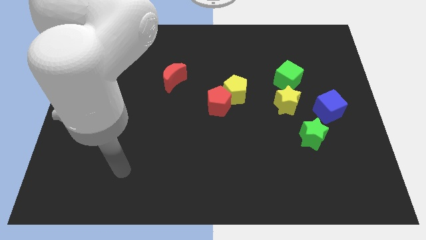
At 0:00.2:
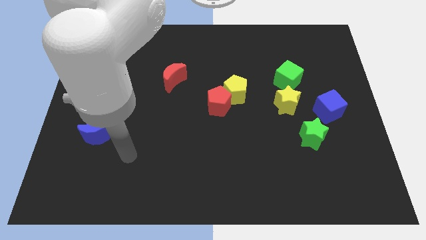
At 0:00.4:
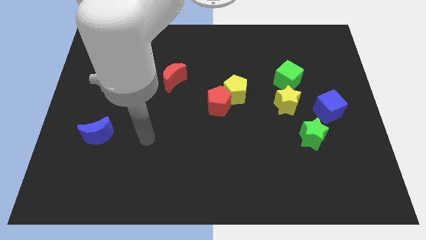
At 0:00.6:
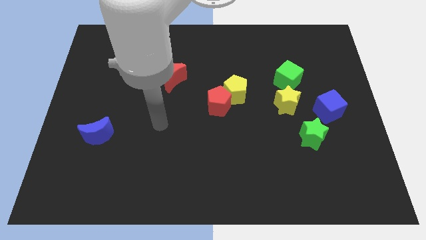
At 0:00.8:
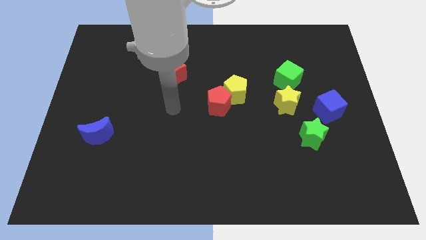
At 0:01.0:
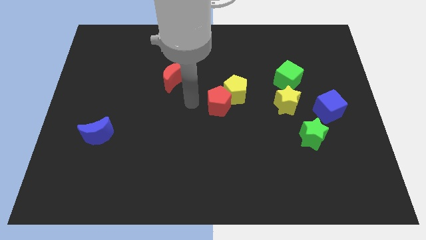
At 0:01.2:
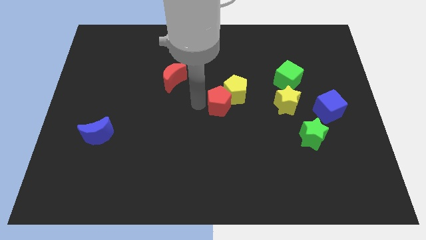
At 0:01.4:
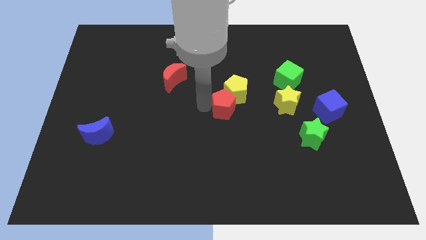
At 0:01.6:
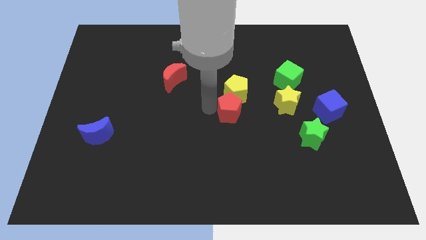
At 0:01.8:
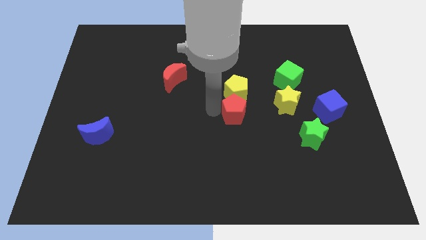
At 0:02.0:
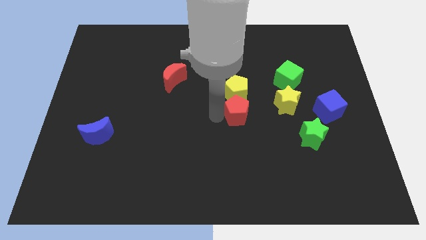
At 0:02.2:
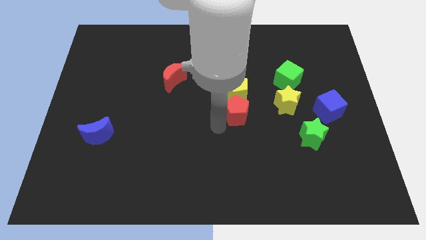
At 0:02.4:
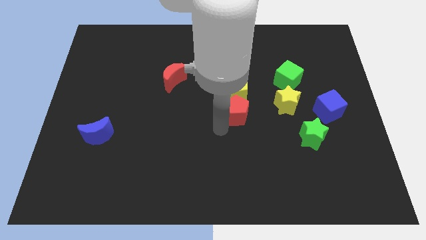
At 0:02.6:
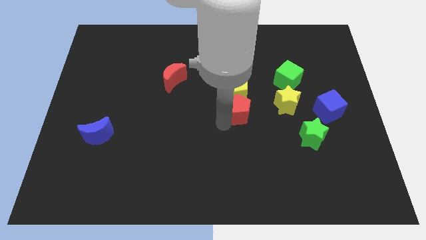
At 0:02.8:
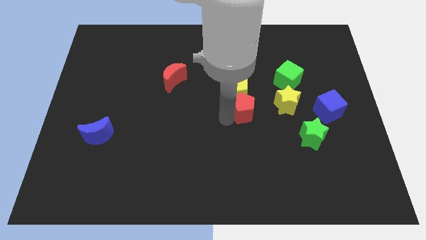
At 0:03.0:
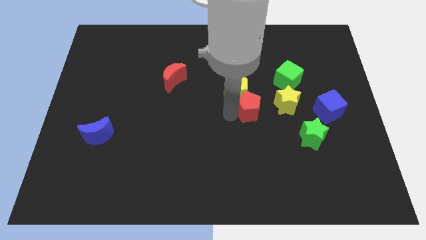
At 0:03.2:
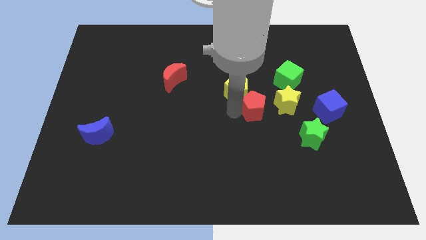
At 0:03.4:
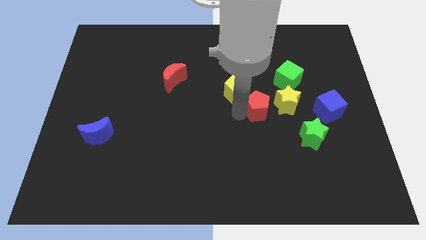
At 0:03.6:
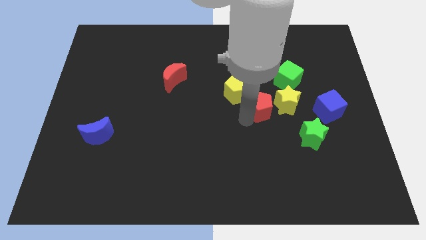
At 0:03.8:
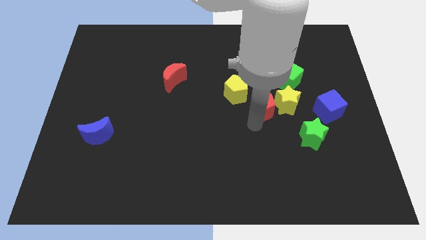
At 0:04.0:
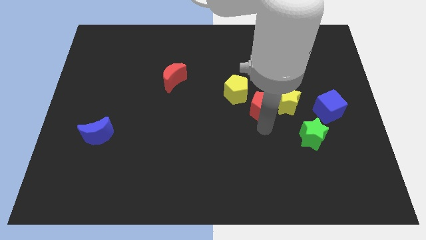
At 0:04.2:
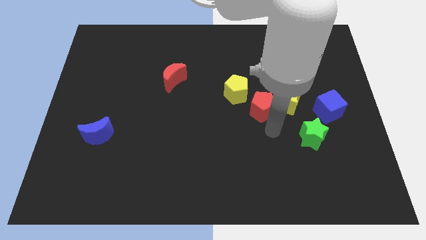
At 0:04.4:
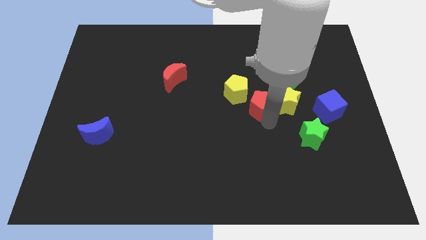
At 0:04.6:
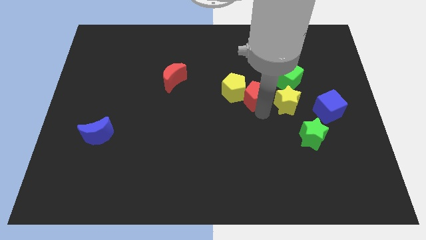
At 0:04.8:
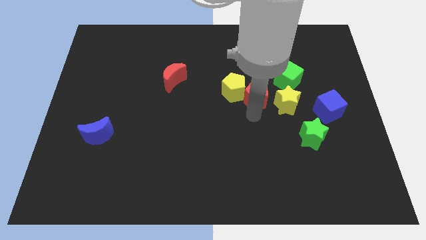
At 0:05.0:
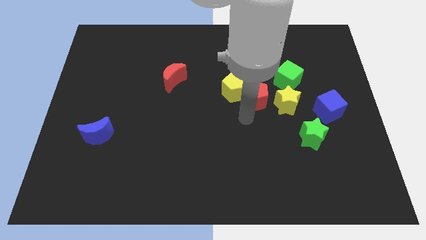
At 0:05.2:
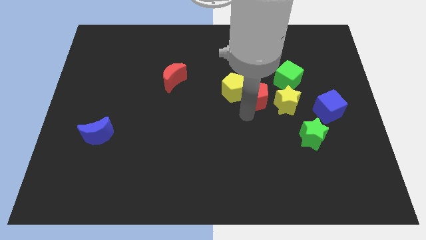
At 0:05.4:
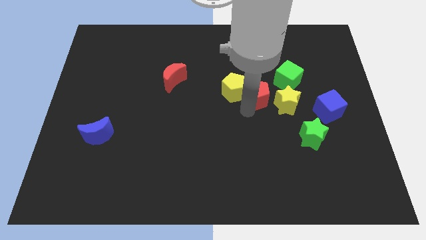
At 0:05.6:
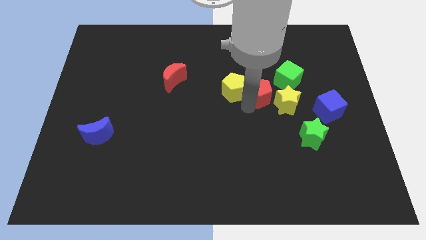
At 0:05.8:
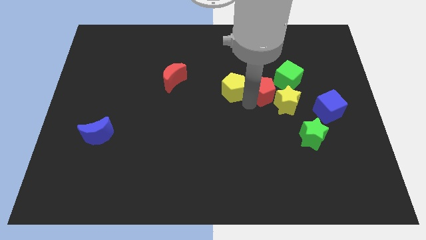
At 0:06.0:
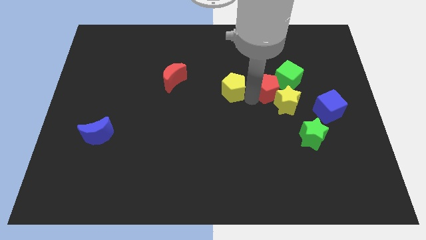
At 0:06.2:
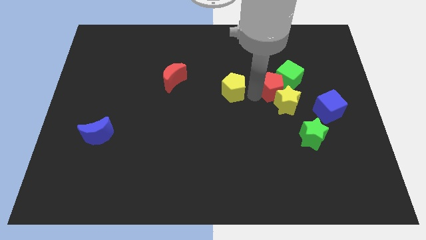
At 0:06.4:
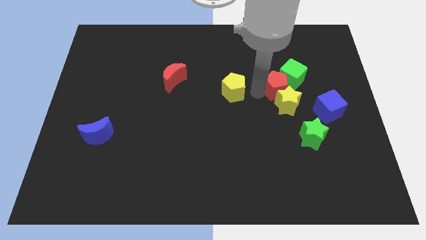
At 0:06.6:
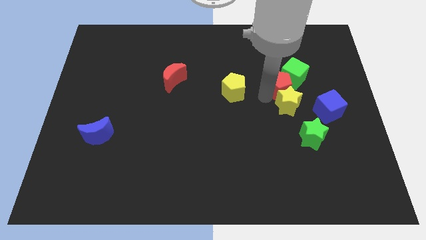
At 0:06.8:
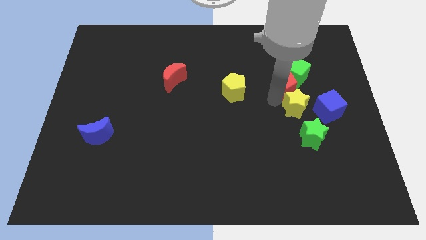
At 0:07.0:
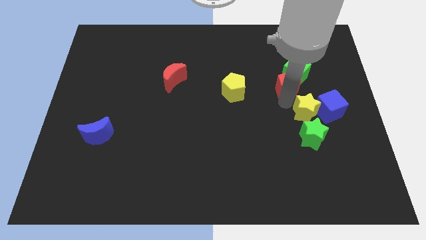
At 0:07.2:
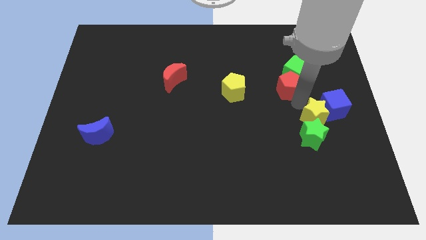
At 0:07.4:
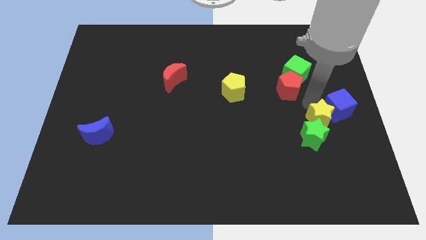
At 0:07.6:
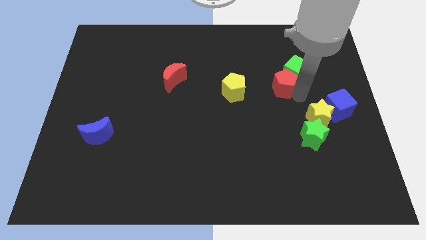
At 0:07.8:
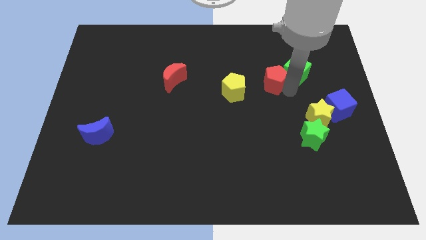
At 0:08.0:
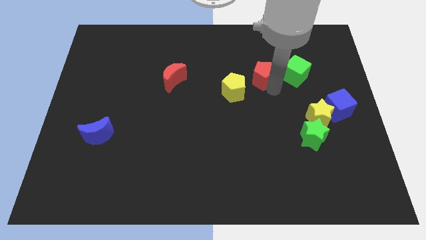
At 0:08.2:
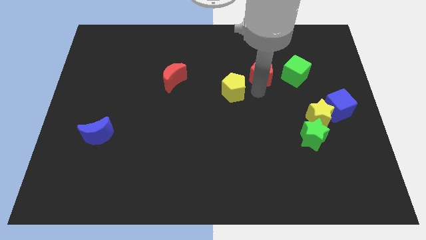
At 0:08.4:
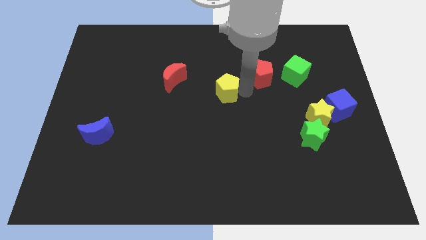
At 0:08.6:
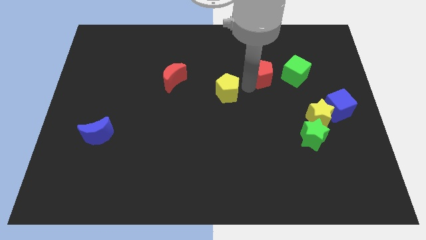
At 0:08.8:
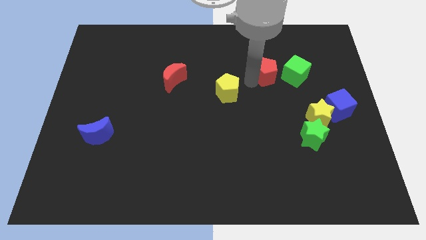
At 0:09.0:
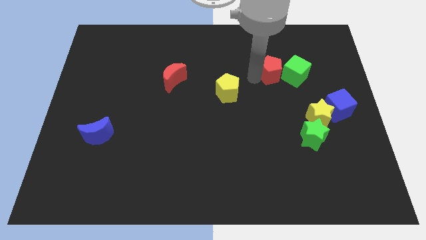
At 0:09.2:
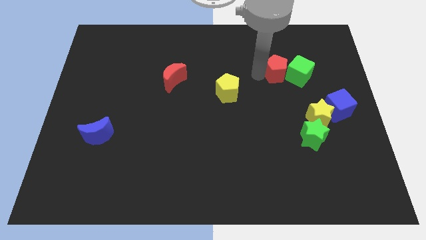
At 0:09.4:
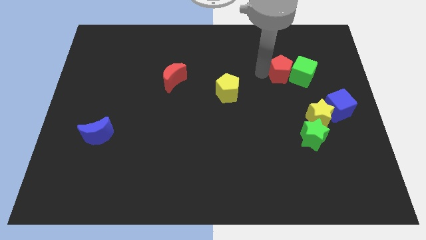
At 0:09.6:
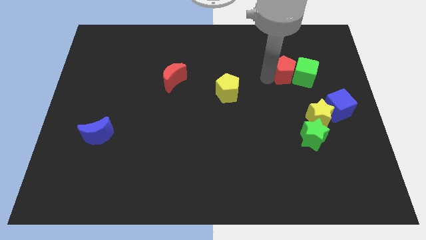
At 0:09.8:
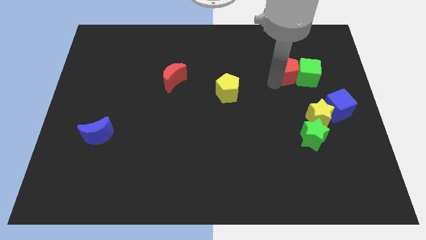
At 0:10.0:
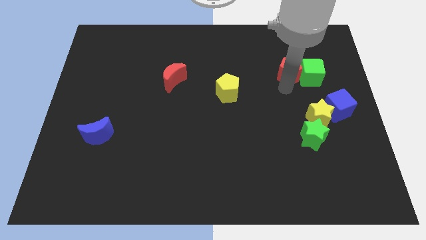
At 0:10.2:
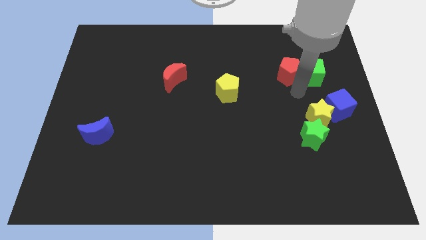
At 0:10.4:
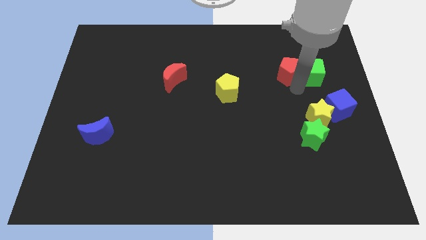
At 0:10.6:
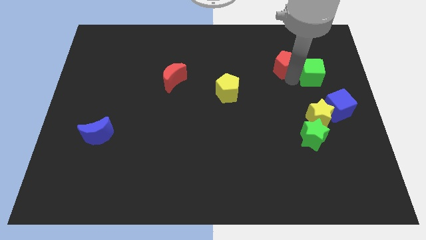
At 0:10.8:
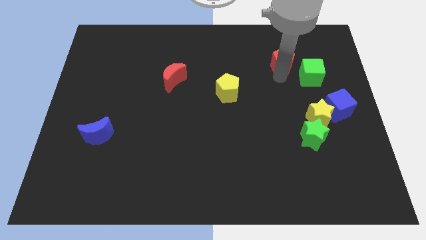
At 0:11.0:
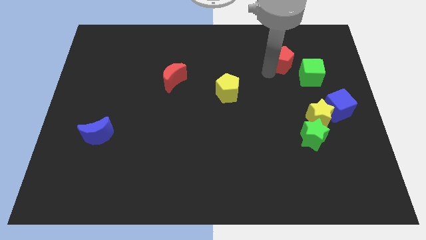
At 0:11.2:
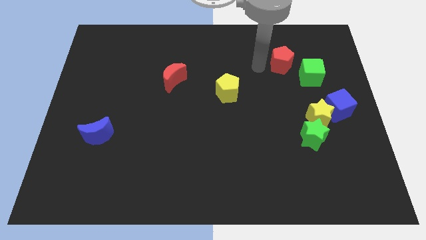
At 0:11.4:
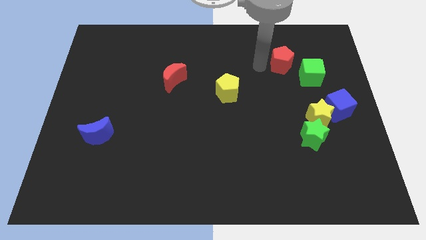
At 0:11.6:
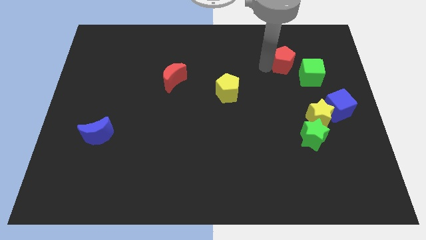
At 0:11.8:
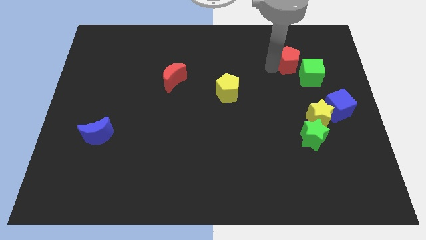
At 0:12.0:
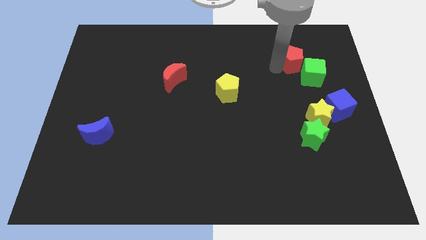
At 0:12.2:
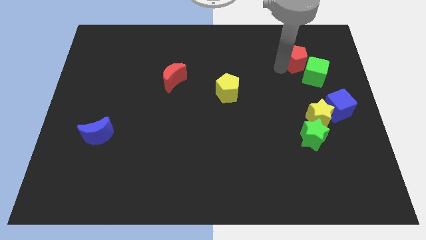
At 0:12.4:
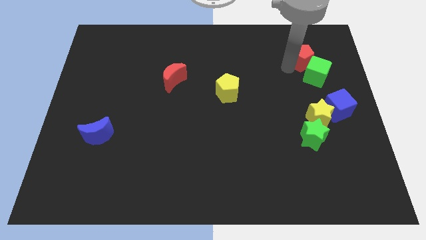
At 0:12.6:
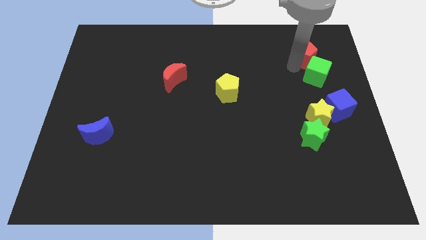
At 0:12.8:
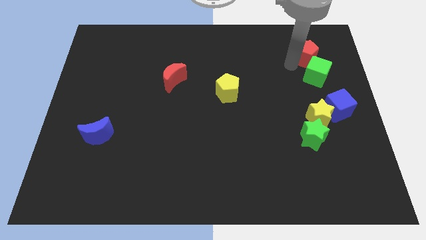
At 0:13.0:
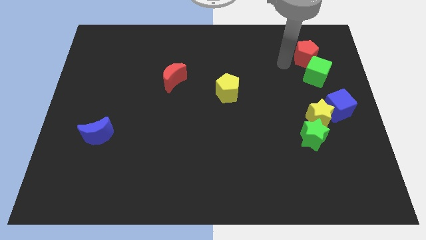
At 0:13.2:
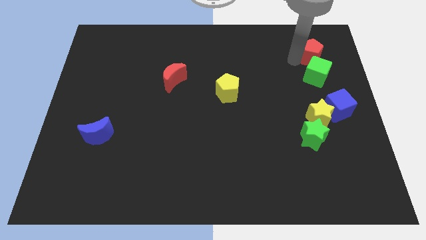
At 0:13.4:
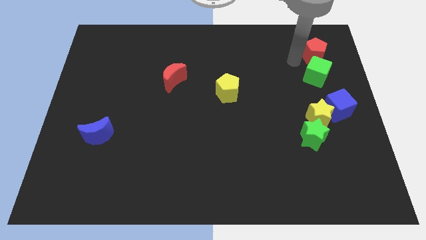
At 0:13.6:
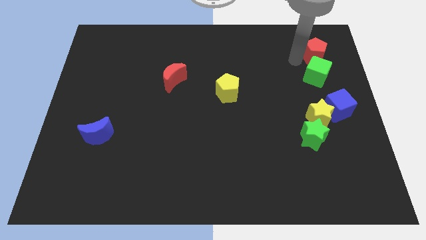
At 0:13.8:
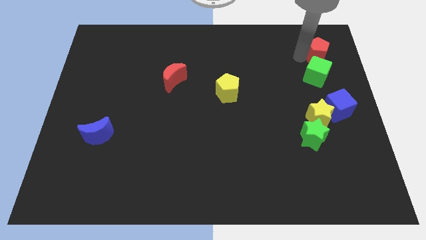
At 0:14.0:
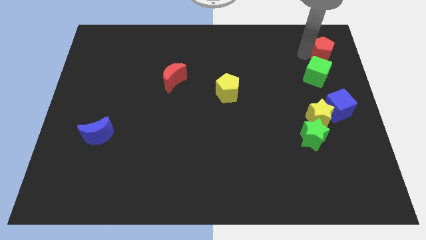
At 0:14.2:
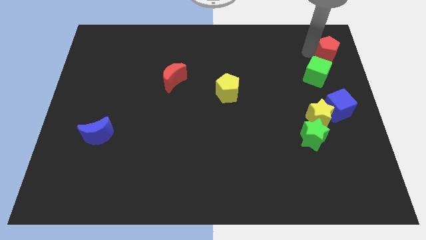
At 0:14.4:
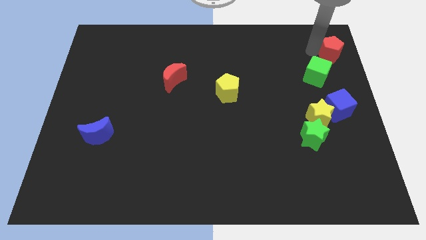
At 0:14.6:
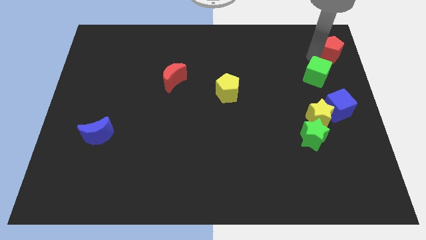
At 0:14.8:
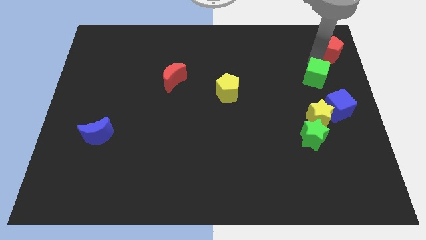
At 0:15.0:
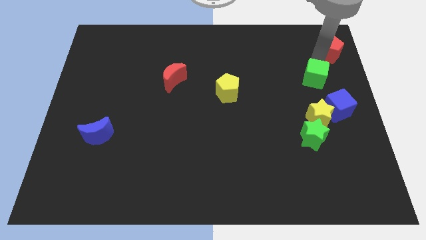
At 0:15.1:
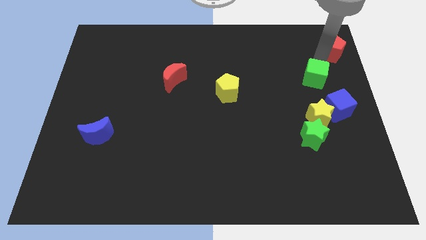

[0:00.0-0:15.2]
push the red pentagon to the top right corner

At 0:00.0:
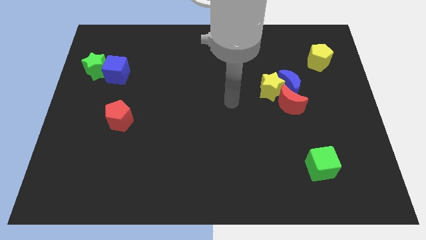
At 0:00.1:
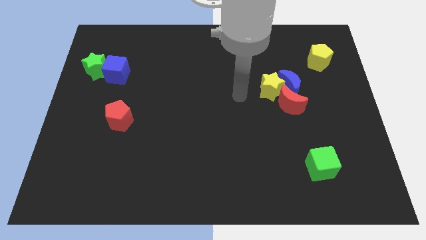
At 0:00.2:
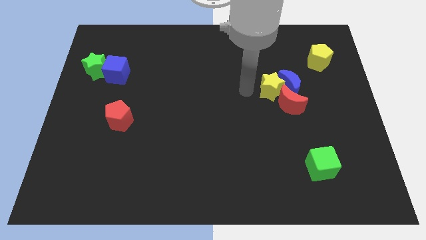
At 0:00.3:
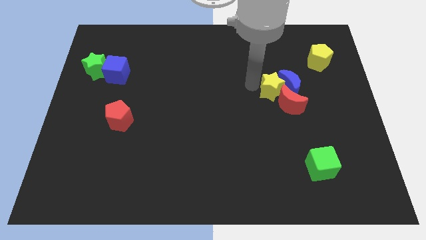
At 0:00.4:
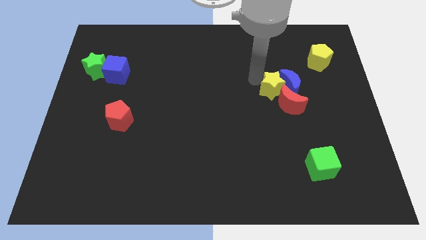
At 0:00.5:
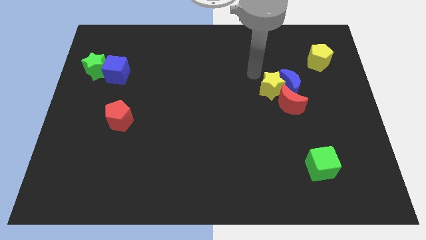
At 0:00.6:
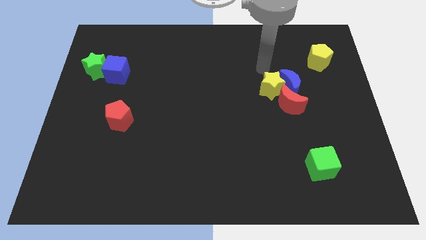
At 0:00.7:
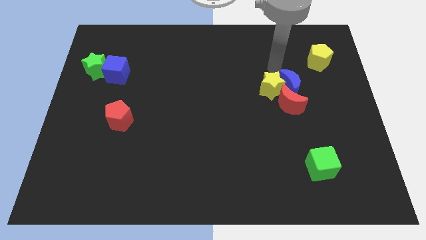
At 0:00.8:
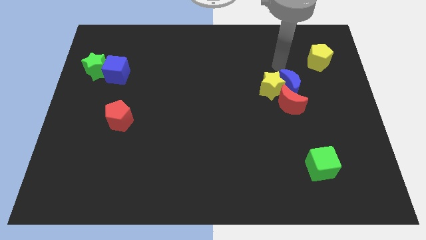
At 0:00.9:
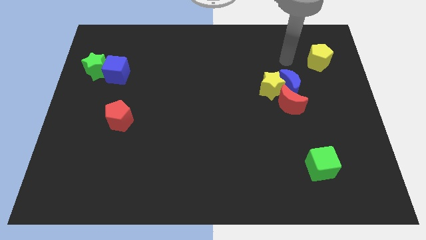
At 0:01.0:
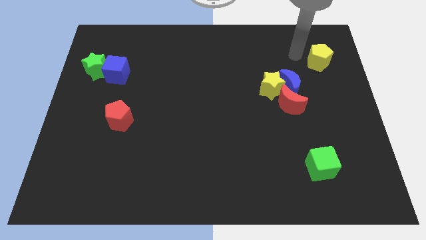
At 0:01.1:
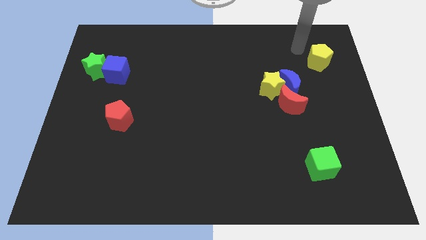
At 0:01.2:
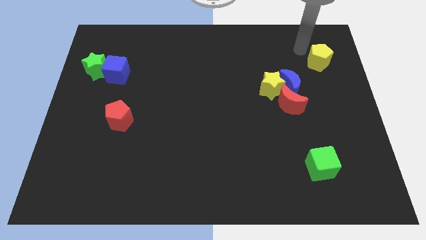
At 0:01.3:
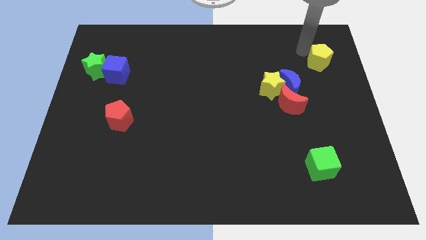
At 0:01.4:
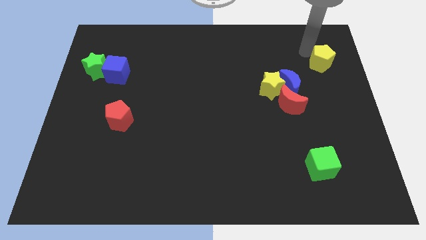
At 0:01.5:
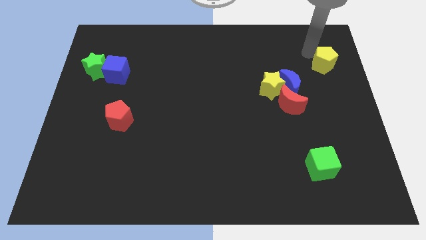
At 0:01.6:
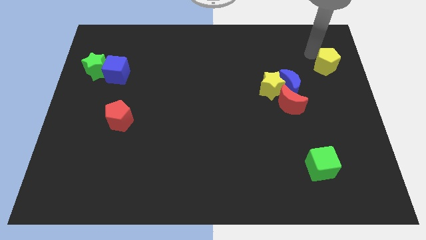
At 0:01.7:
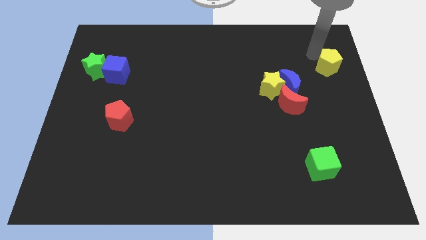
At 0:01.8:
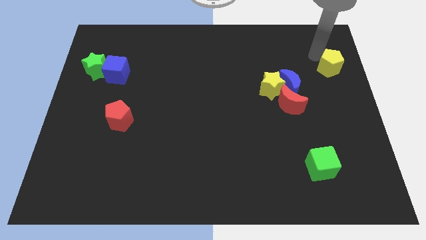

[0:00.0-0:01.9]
move the yellow pentagon to the center right
